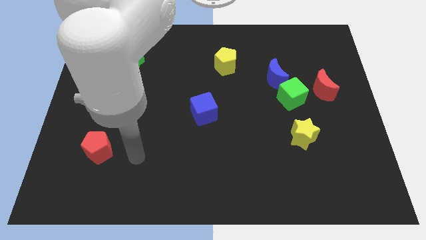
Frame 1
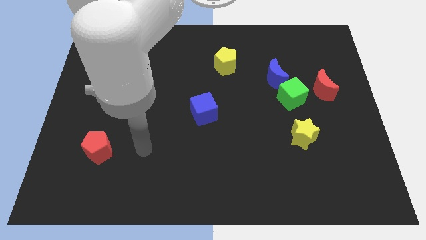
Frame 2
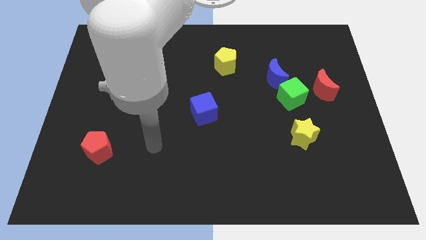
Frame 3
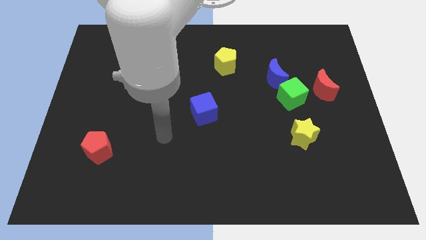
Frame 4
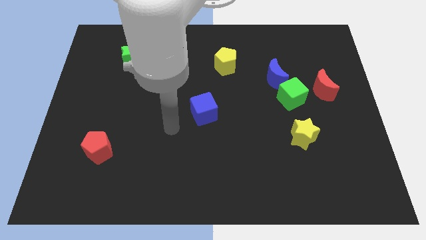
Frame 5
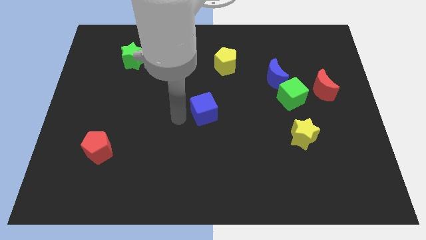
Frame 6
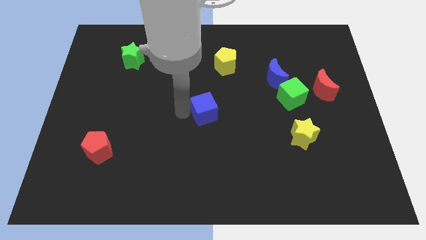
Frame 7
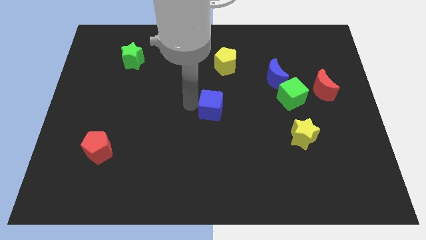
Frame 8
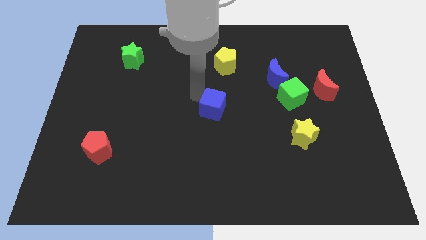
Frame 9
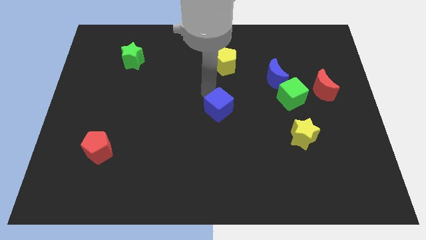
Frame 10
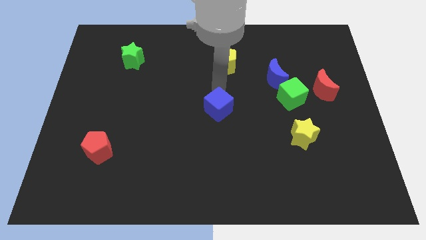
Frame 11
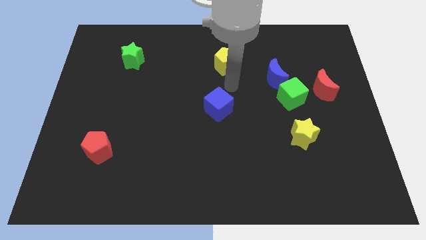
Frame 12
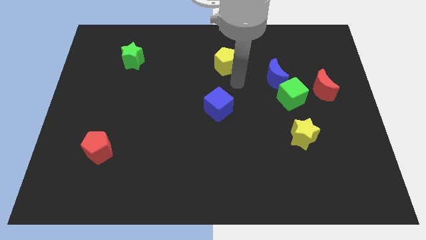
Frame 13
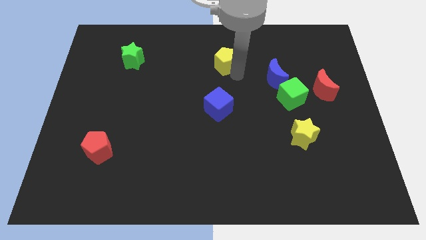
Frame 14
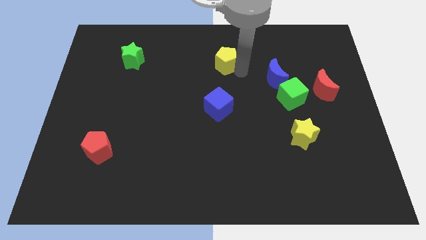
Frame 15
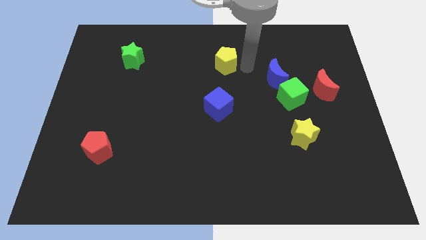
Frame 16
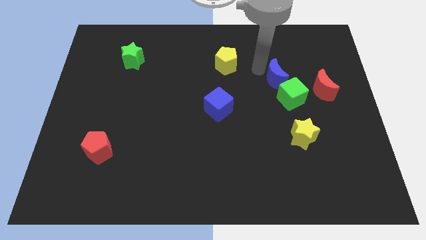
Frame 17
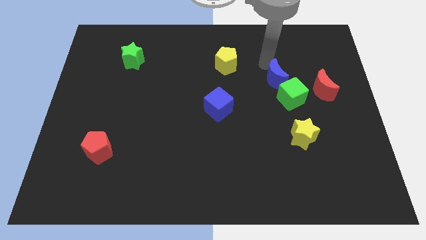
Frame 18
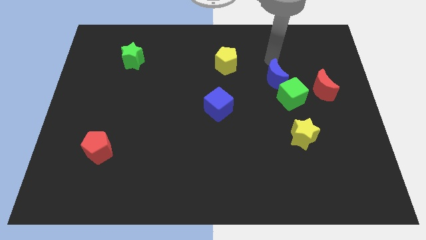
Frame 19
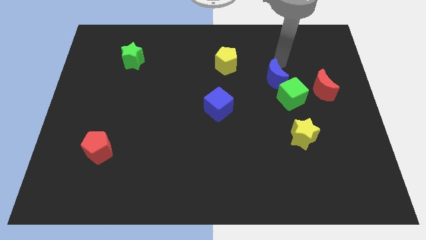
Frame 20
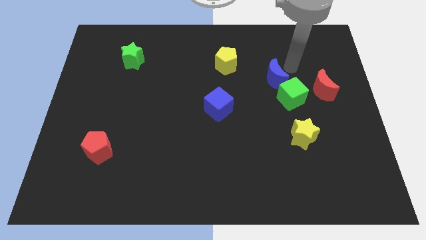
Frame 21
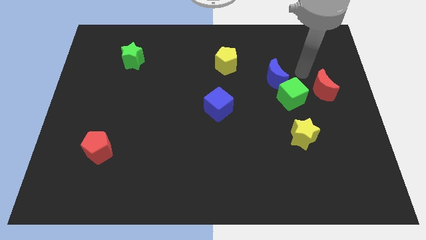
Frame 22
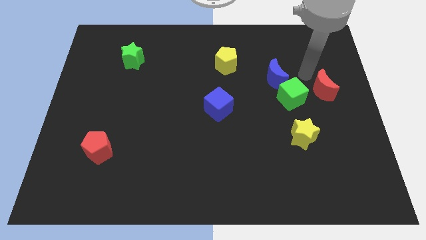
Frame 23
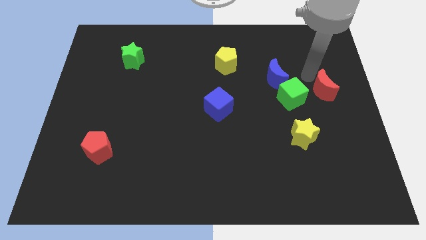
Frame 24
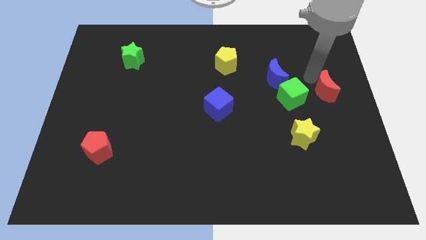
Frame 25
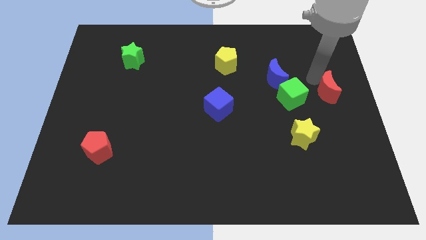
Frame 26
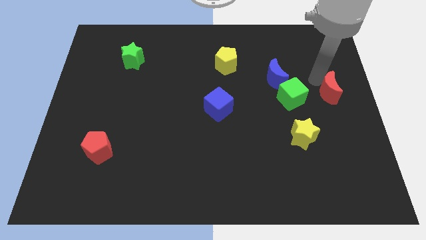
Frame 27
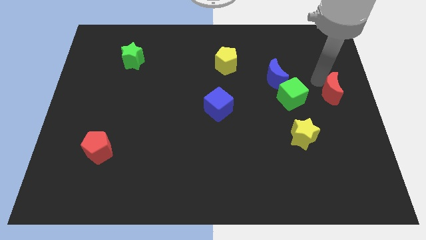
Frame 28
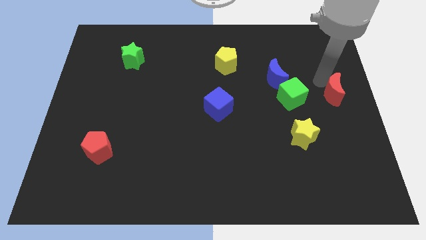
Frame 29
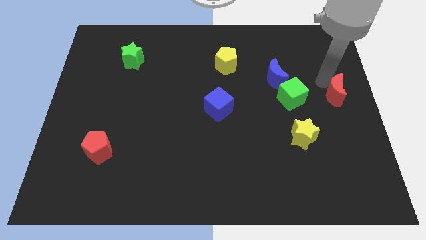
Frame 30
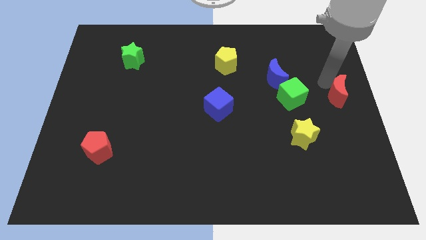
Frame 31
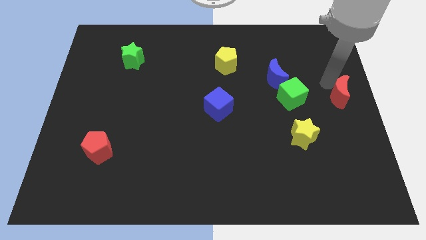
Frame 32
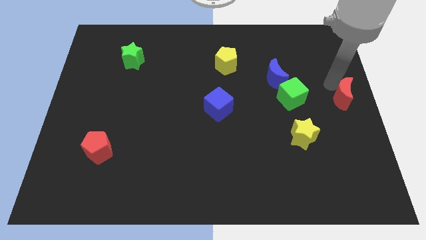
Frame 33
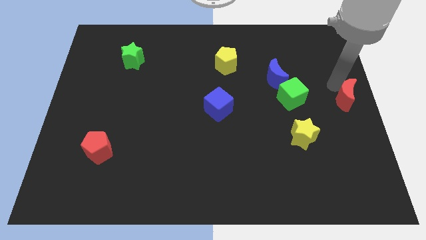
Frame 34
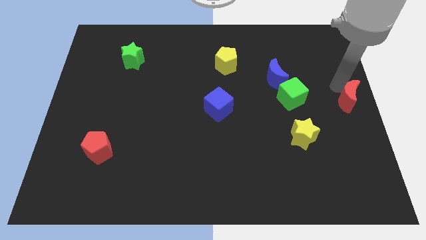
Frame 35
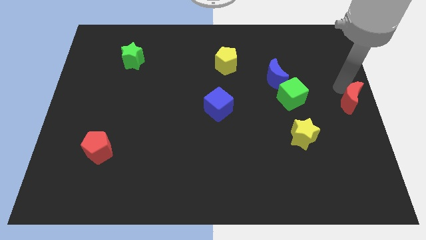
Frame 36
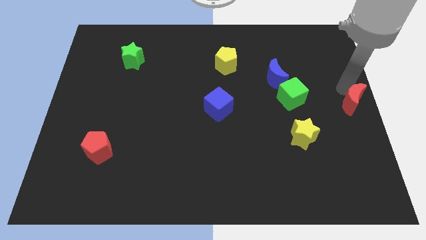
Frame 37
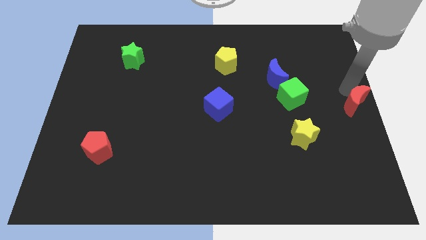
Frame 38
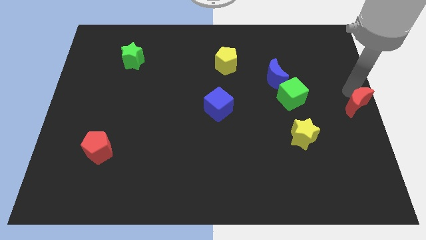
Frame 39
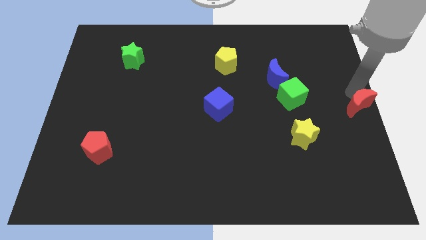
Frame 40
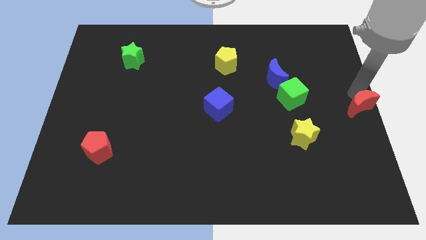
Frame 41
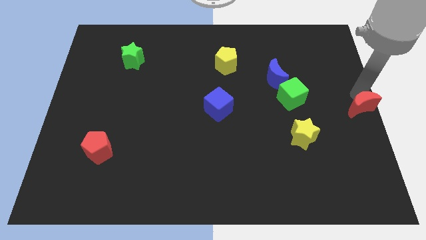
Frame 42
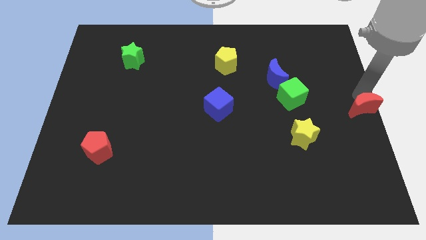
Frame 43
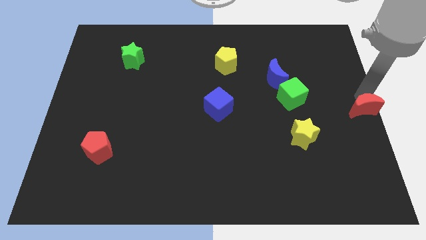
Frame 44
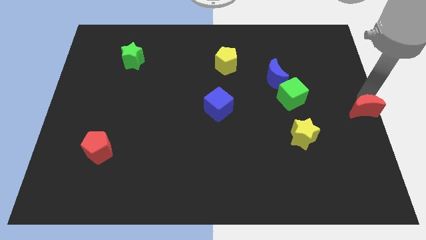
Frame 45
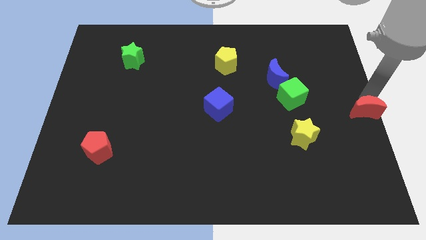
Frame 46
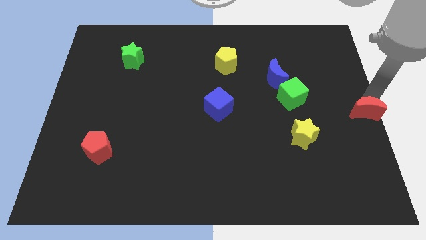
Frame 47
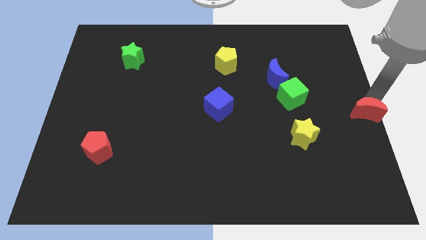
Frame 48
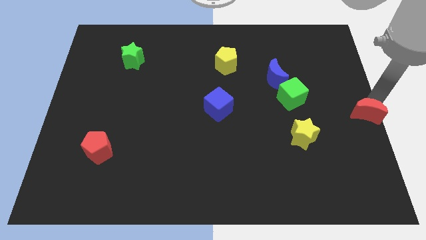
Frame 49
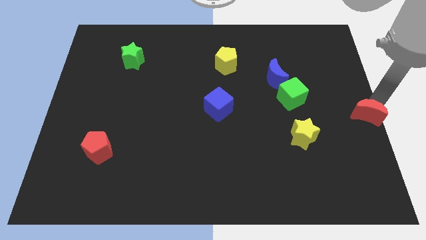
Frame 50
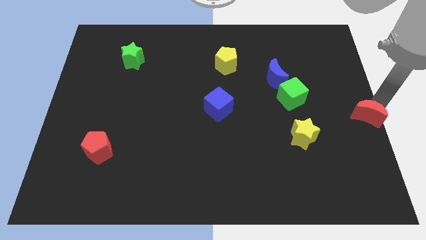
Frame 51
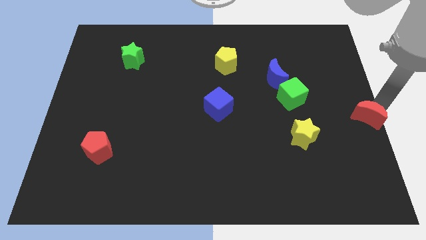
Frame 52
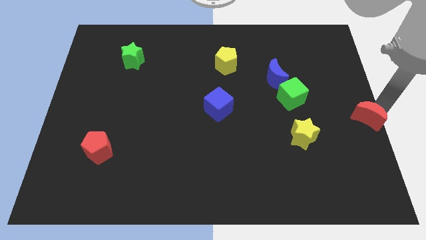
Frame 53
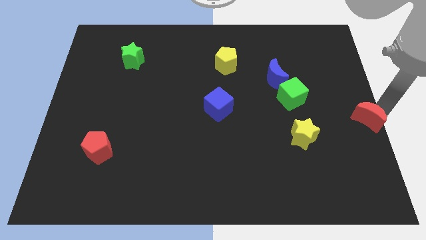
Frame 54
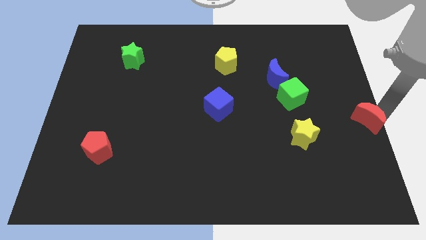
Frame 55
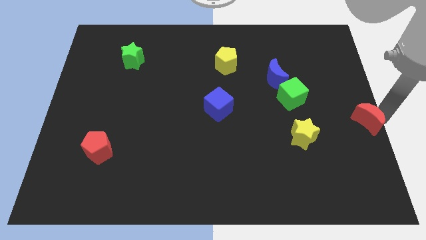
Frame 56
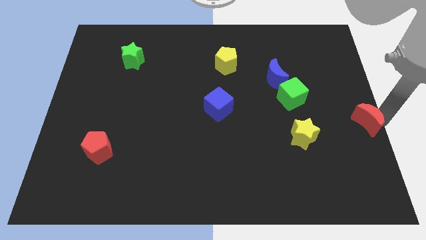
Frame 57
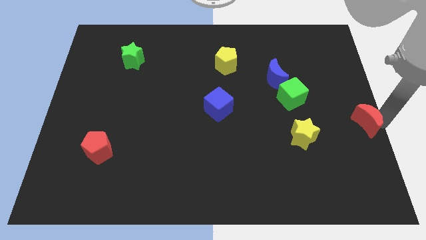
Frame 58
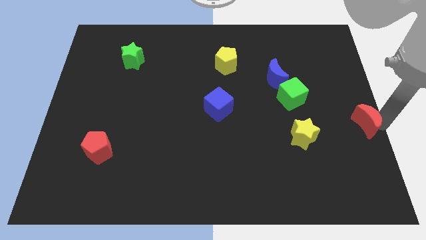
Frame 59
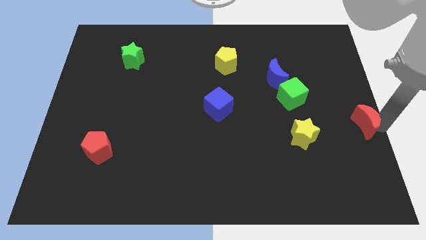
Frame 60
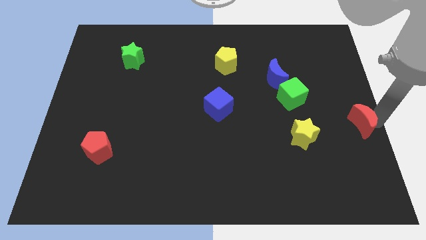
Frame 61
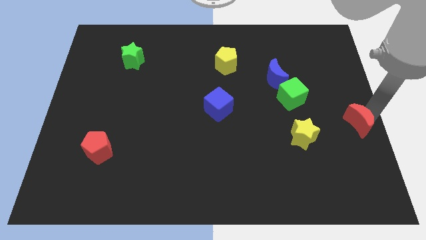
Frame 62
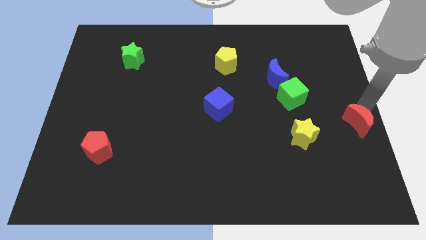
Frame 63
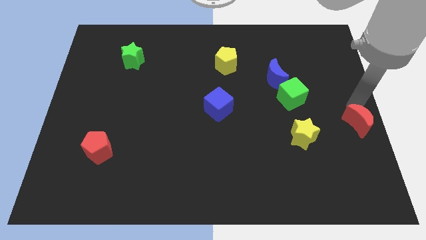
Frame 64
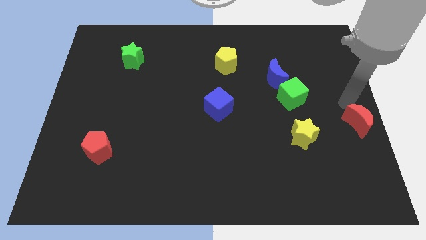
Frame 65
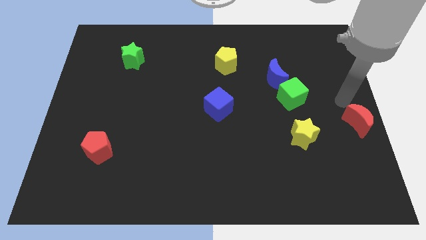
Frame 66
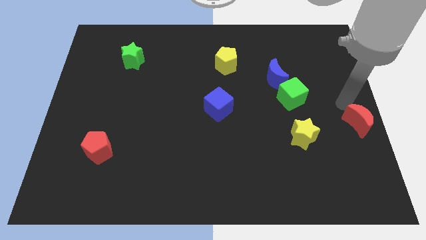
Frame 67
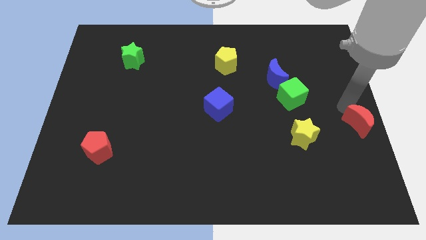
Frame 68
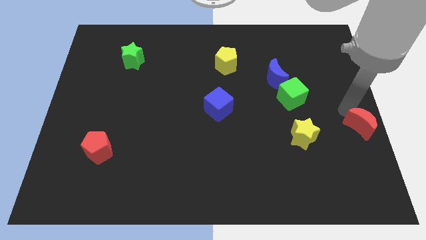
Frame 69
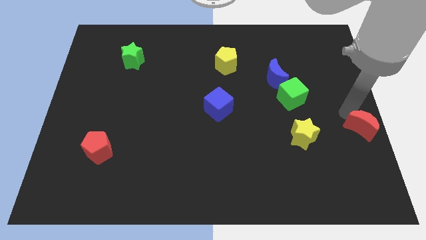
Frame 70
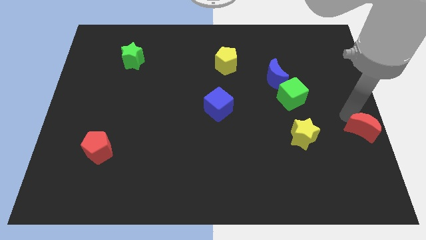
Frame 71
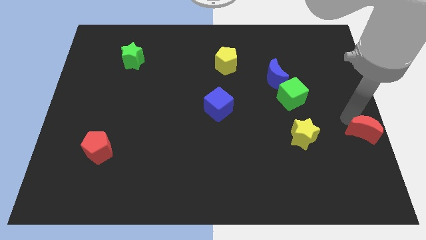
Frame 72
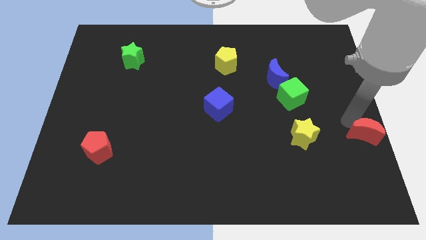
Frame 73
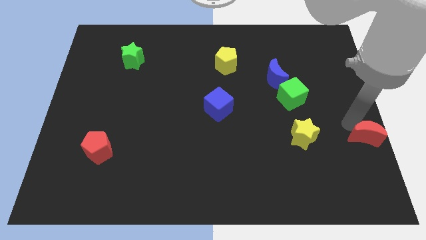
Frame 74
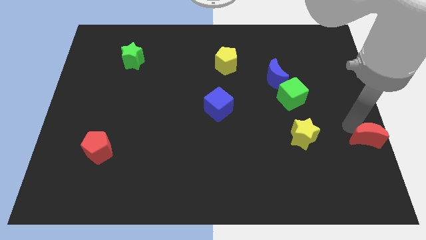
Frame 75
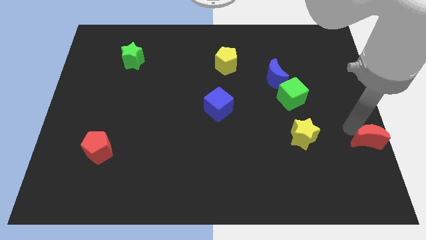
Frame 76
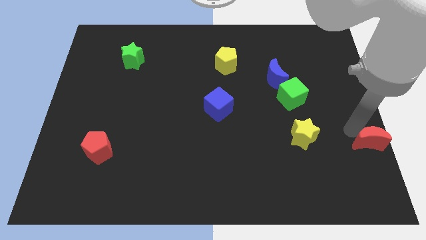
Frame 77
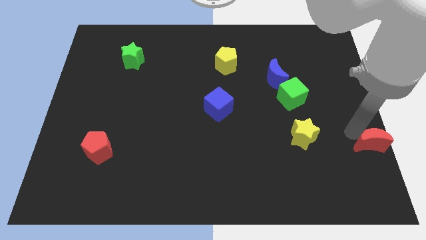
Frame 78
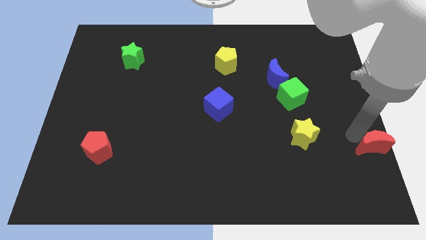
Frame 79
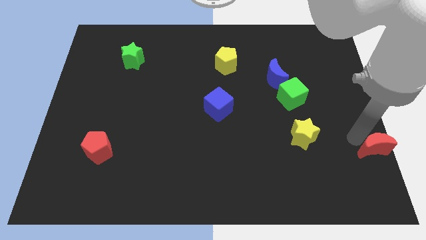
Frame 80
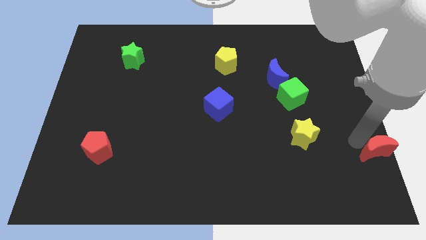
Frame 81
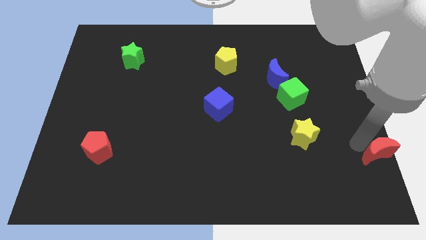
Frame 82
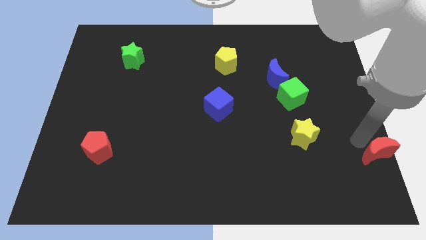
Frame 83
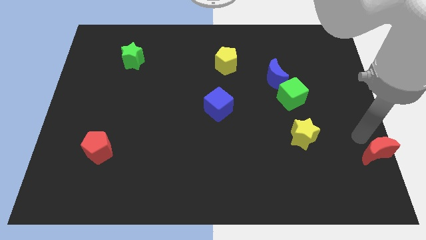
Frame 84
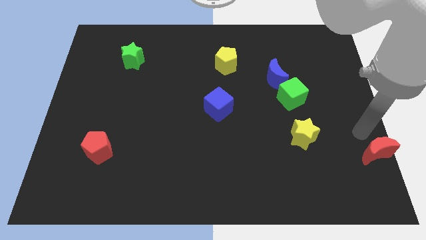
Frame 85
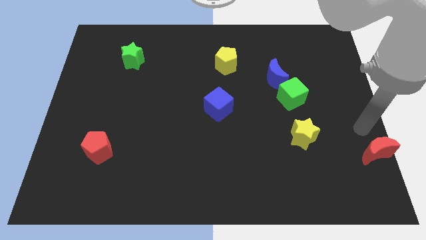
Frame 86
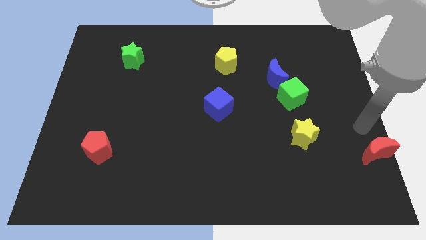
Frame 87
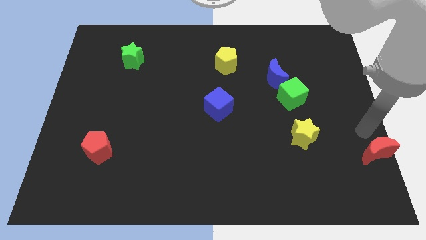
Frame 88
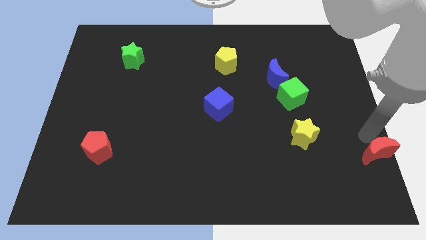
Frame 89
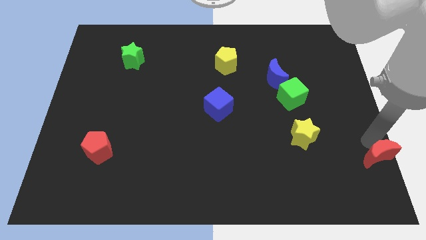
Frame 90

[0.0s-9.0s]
move the red moon to the lower right corner
